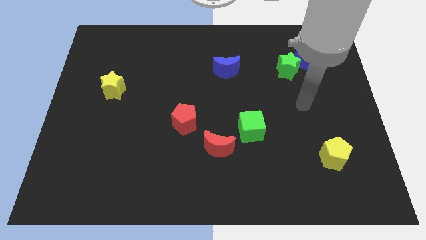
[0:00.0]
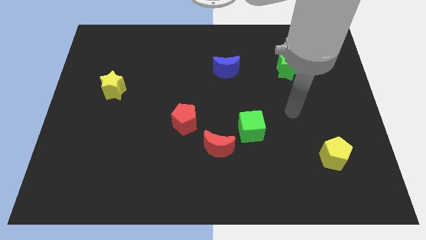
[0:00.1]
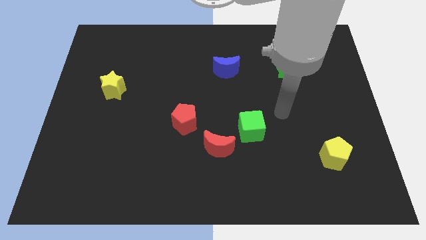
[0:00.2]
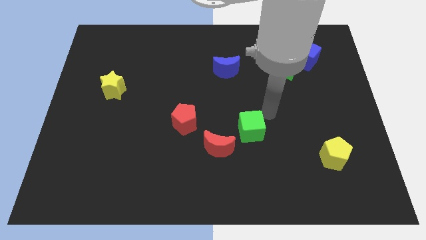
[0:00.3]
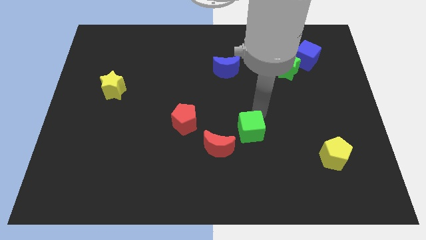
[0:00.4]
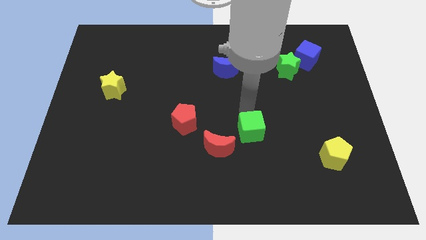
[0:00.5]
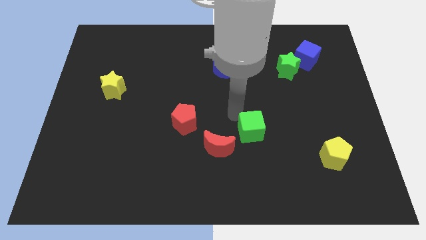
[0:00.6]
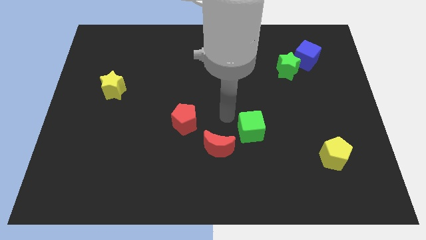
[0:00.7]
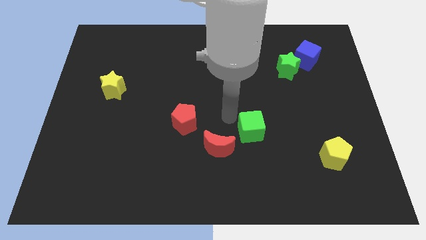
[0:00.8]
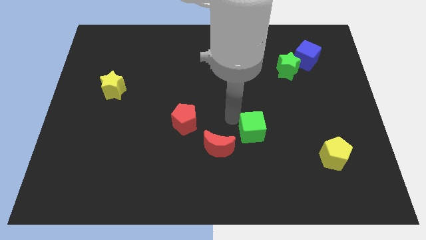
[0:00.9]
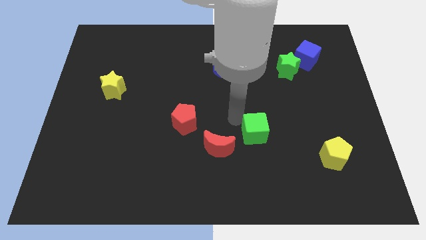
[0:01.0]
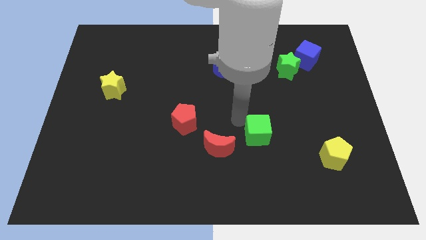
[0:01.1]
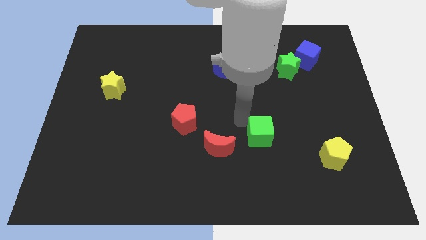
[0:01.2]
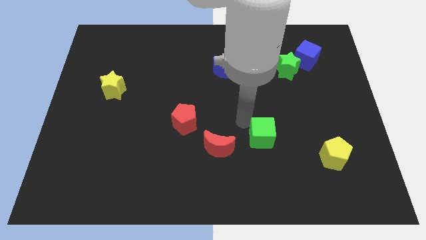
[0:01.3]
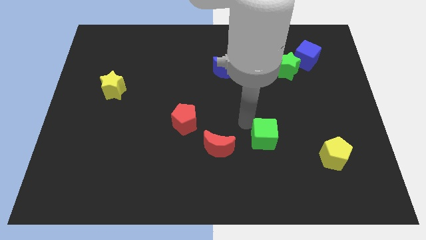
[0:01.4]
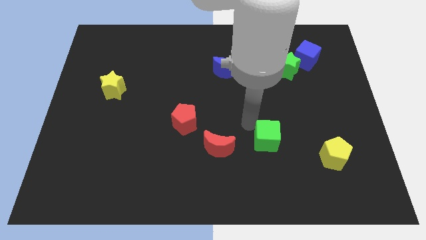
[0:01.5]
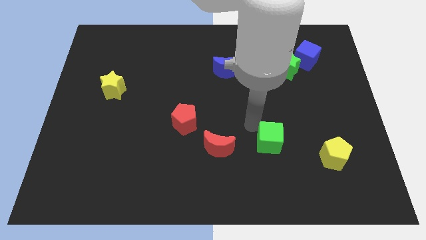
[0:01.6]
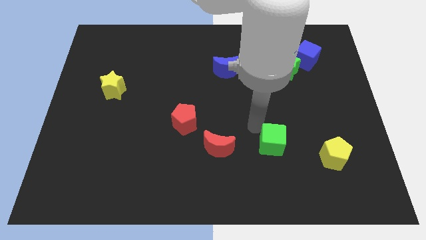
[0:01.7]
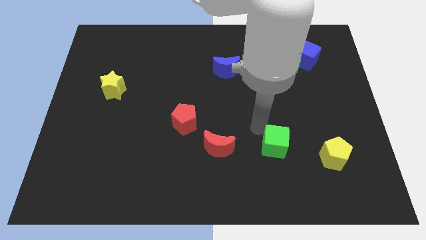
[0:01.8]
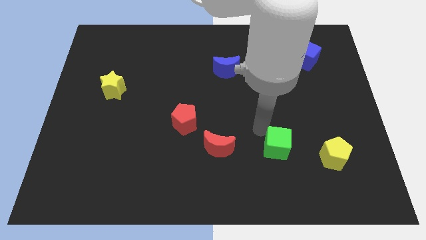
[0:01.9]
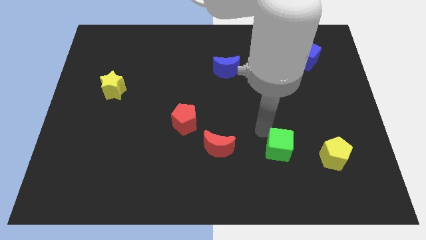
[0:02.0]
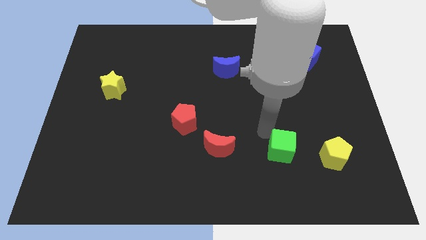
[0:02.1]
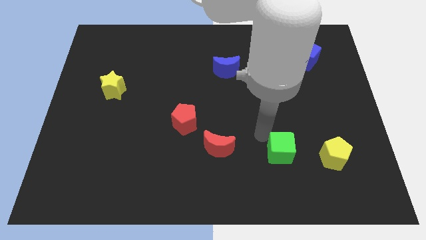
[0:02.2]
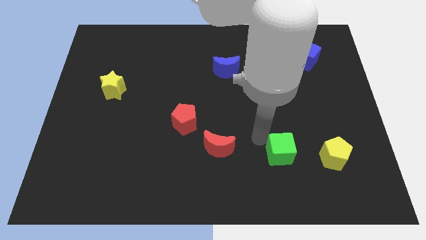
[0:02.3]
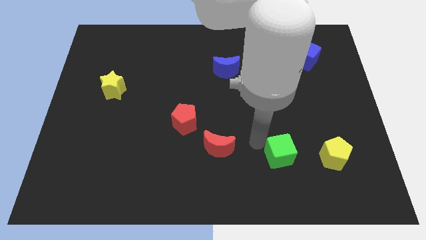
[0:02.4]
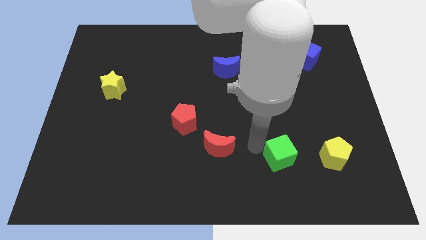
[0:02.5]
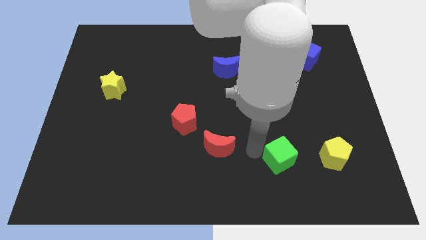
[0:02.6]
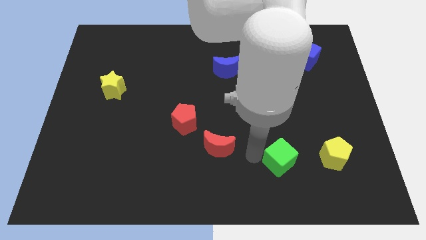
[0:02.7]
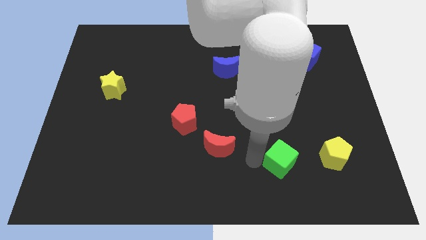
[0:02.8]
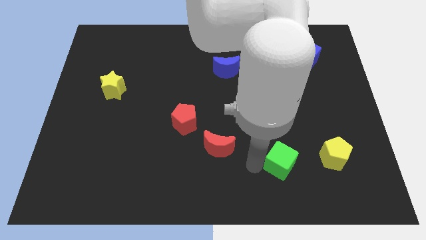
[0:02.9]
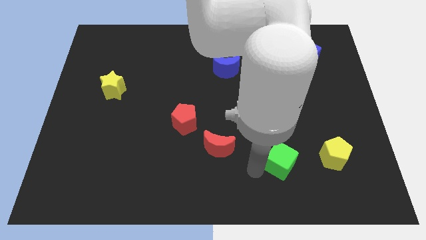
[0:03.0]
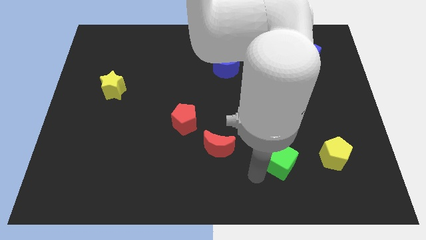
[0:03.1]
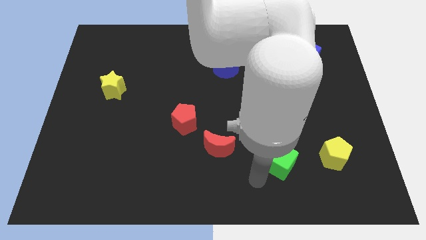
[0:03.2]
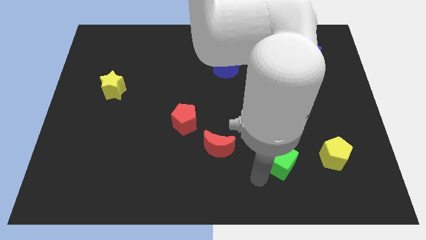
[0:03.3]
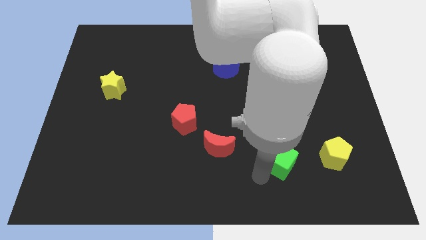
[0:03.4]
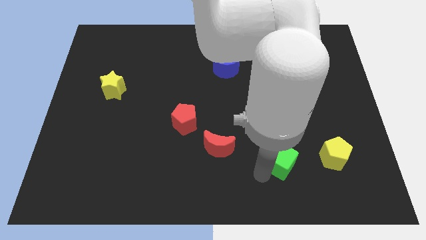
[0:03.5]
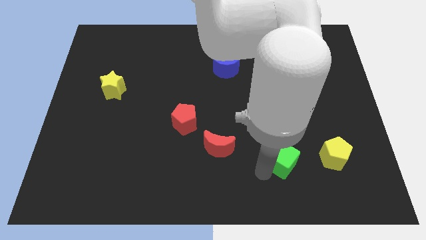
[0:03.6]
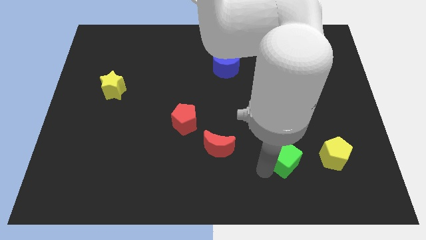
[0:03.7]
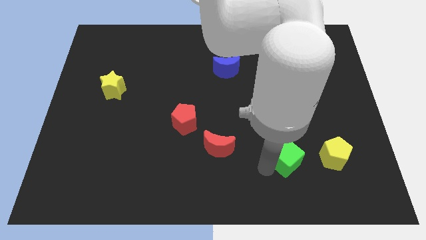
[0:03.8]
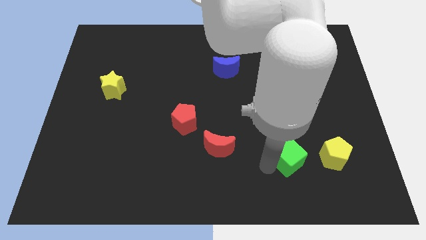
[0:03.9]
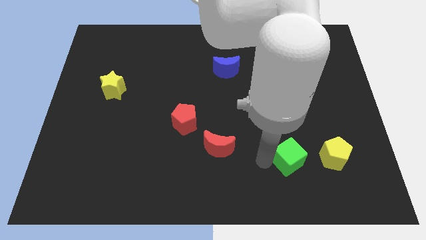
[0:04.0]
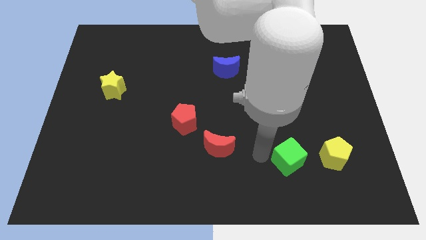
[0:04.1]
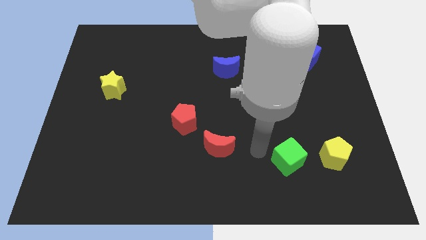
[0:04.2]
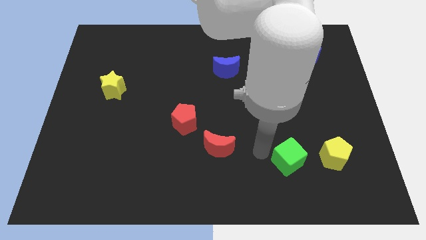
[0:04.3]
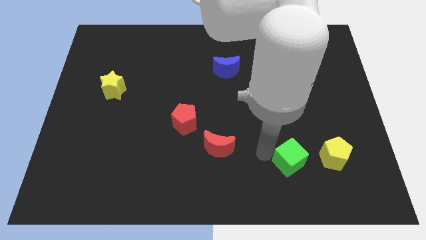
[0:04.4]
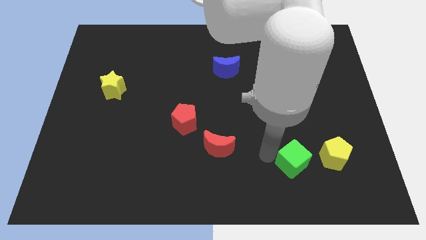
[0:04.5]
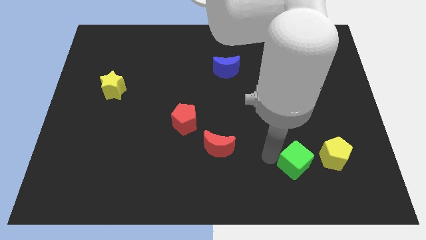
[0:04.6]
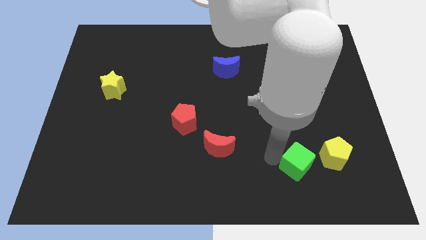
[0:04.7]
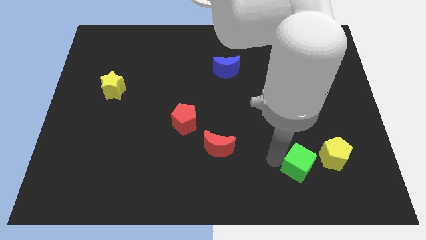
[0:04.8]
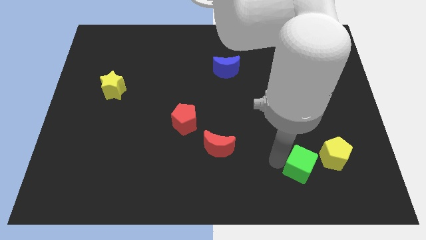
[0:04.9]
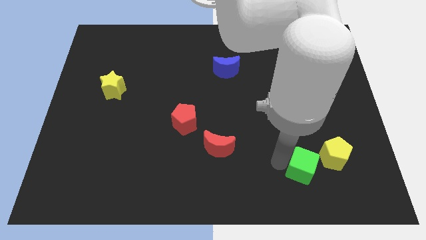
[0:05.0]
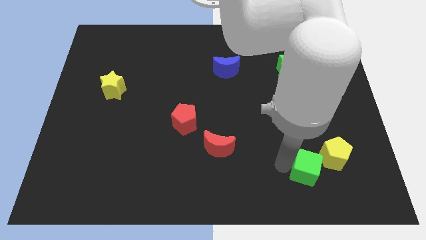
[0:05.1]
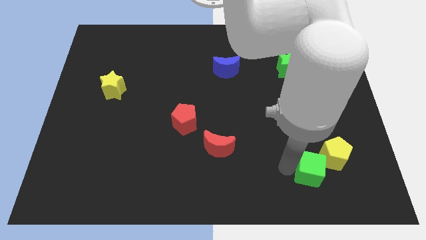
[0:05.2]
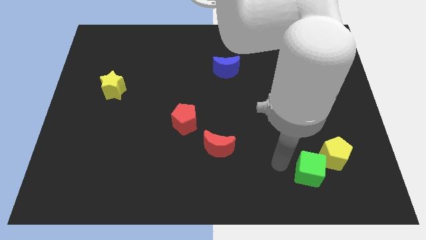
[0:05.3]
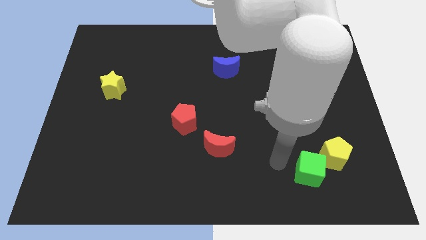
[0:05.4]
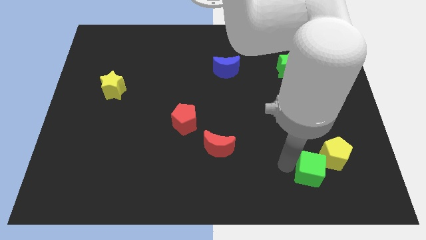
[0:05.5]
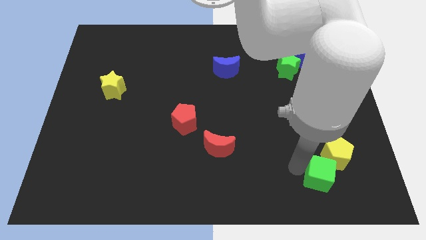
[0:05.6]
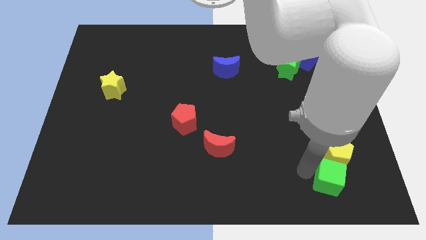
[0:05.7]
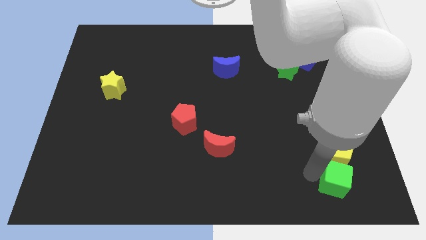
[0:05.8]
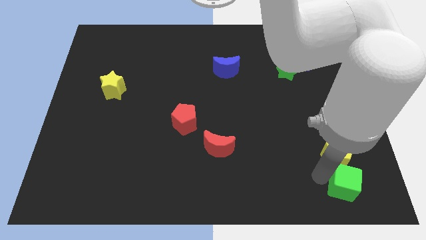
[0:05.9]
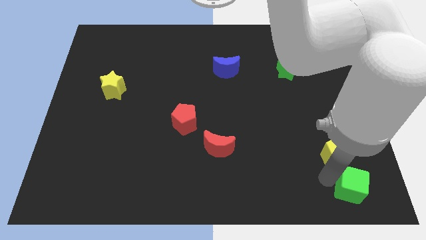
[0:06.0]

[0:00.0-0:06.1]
slide the green cube to the lower right corner

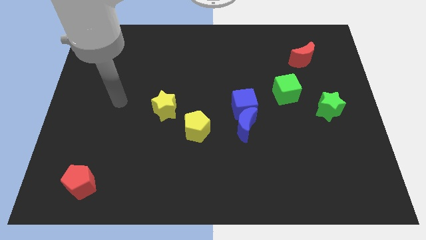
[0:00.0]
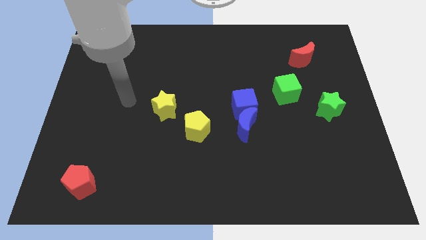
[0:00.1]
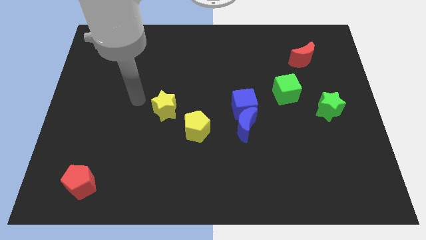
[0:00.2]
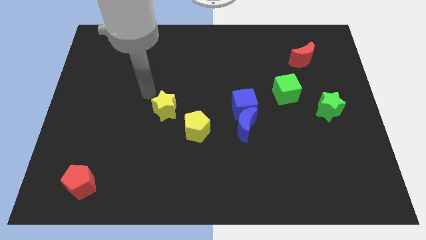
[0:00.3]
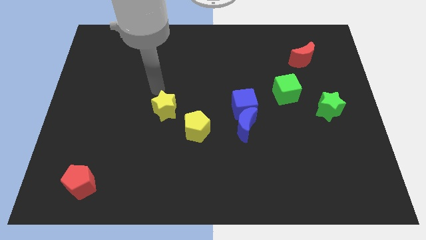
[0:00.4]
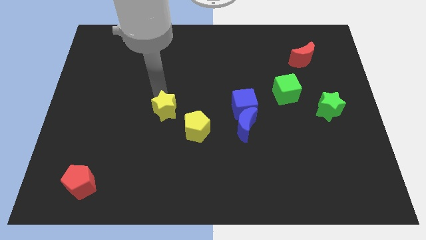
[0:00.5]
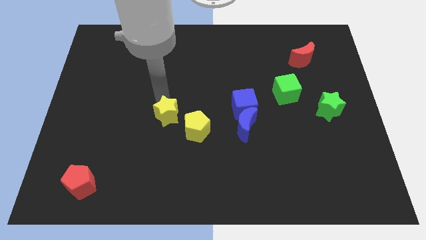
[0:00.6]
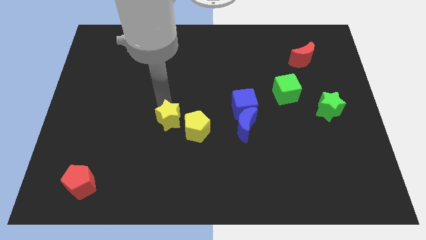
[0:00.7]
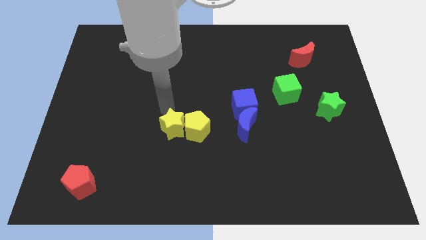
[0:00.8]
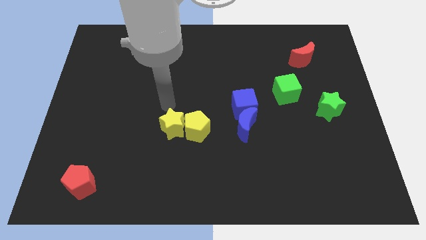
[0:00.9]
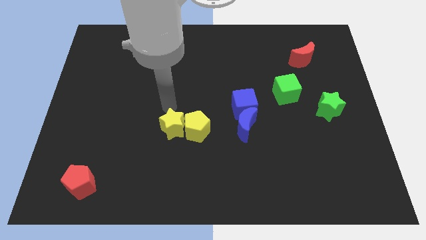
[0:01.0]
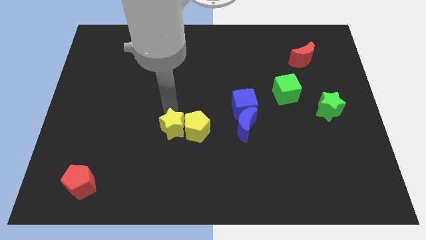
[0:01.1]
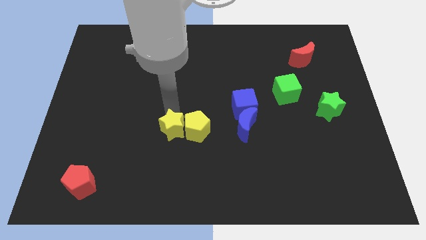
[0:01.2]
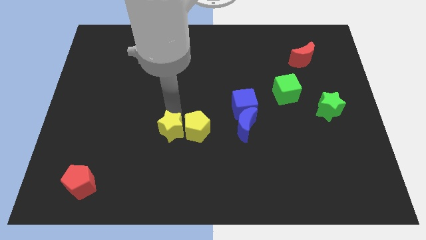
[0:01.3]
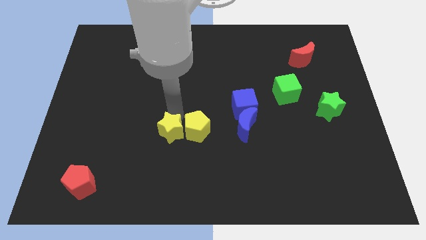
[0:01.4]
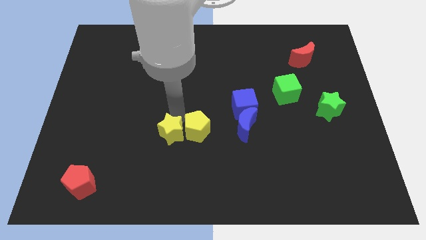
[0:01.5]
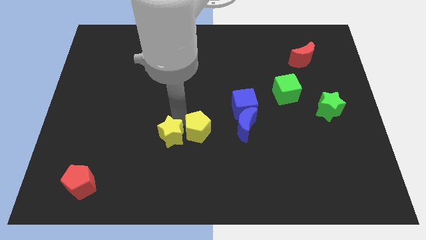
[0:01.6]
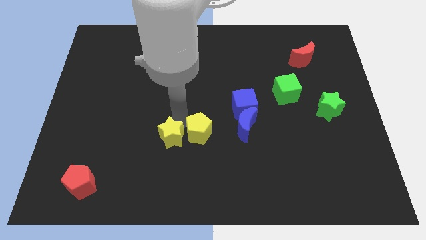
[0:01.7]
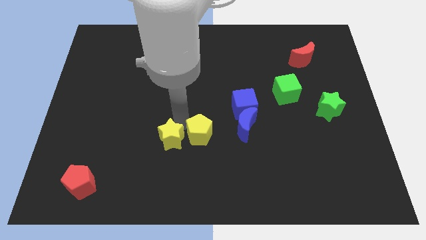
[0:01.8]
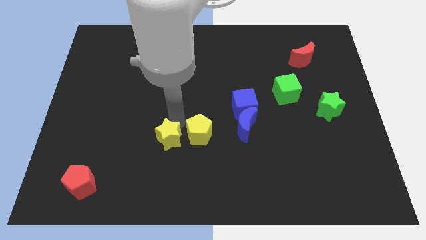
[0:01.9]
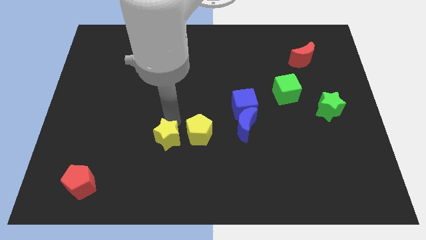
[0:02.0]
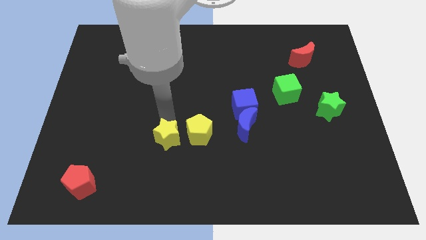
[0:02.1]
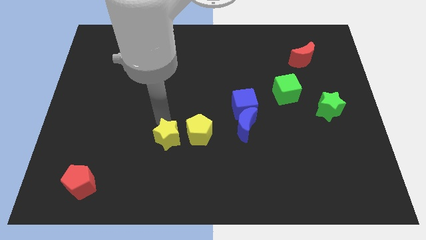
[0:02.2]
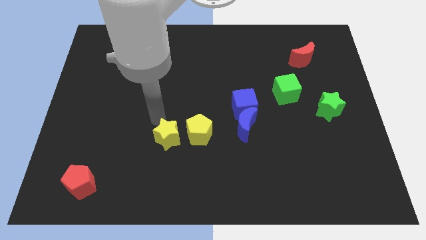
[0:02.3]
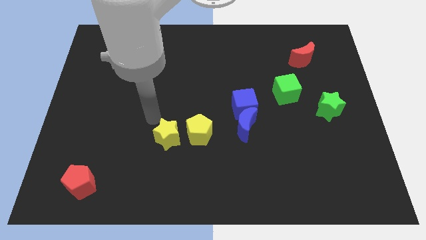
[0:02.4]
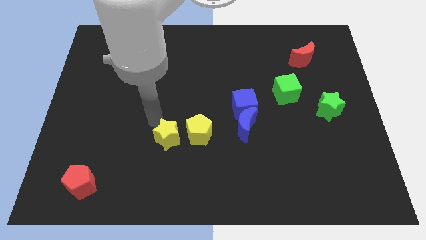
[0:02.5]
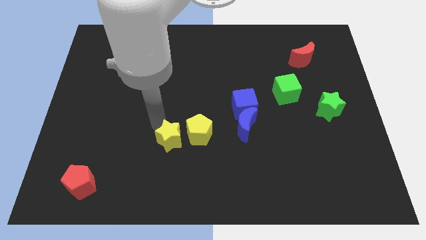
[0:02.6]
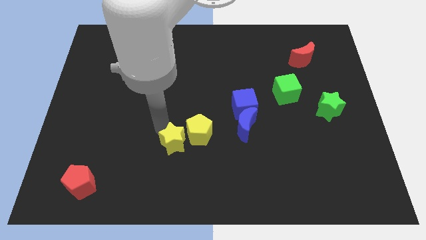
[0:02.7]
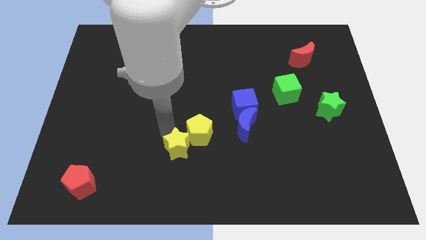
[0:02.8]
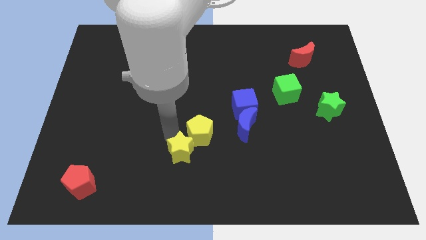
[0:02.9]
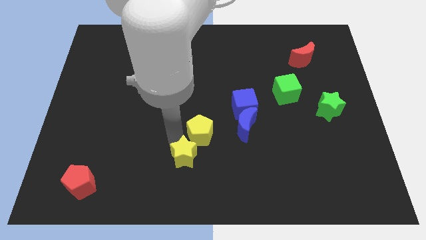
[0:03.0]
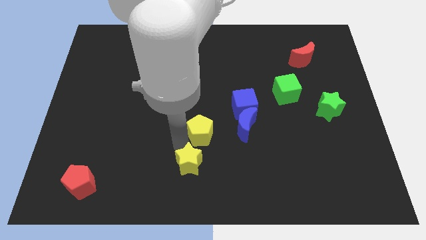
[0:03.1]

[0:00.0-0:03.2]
slide the yellow star to the bottom side
